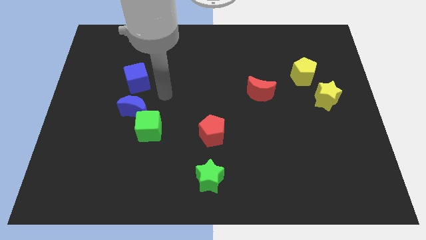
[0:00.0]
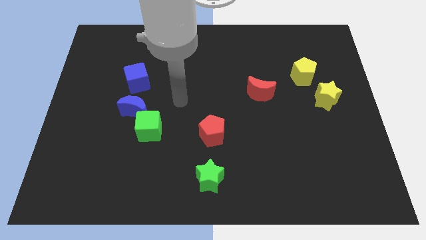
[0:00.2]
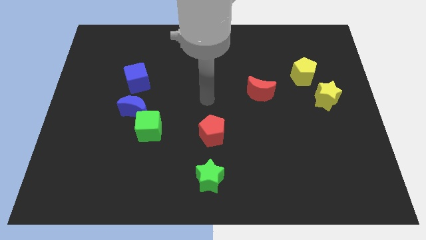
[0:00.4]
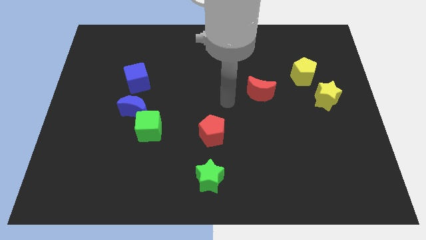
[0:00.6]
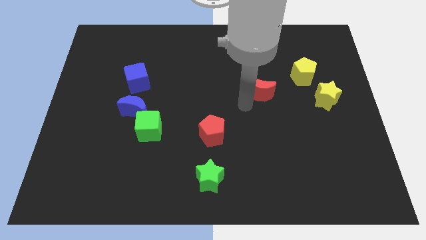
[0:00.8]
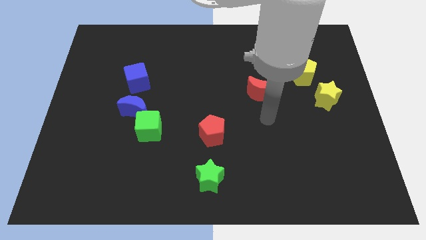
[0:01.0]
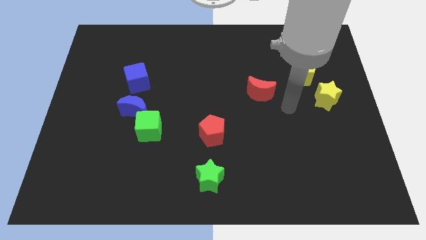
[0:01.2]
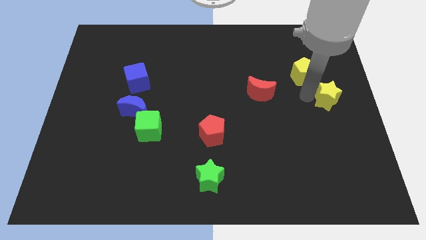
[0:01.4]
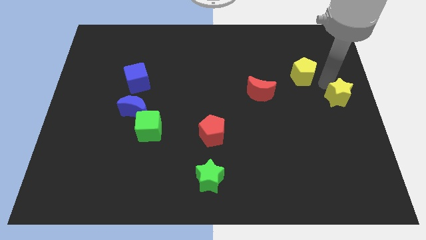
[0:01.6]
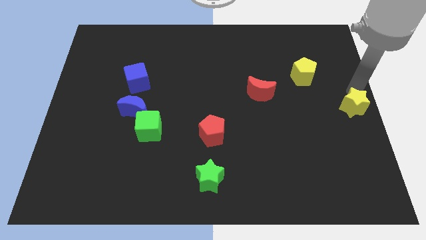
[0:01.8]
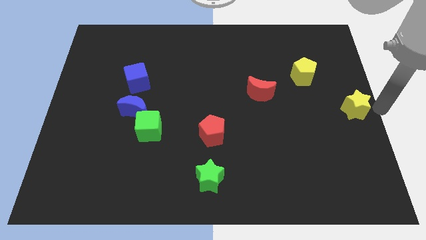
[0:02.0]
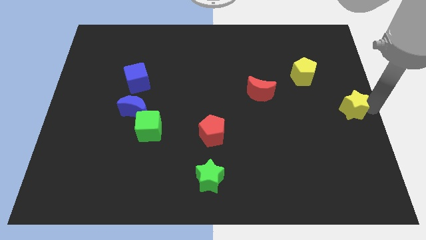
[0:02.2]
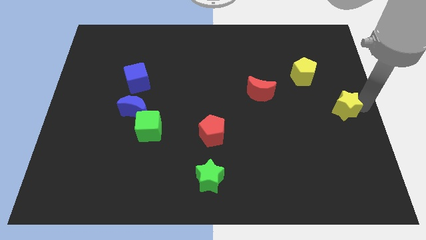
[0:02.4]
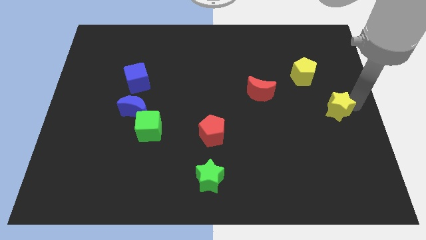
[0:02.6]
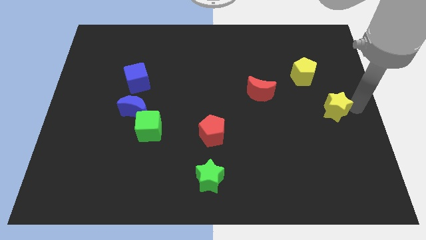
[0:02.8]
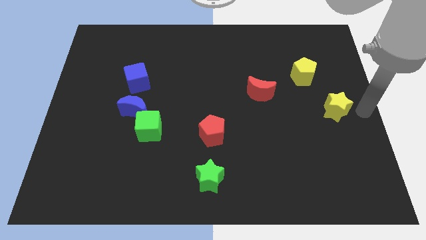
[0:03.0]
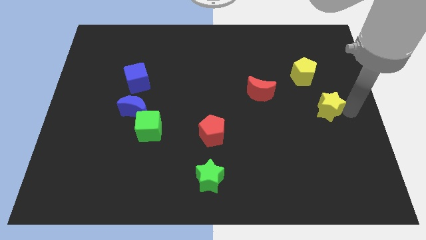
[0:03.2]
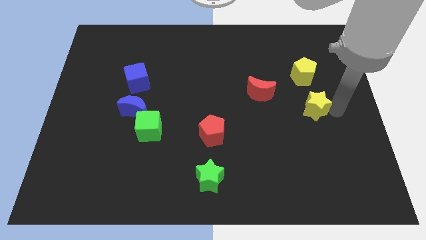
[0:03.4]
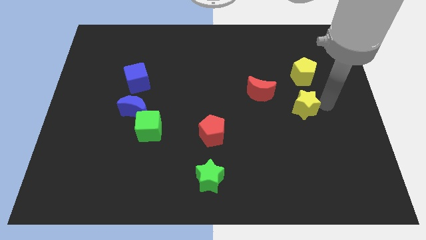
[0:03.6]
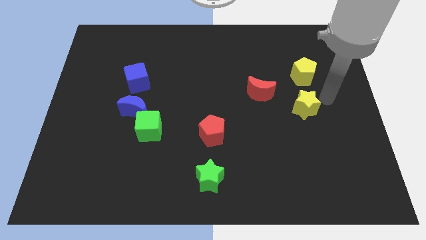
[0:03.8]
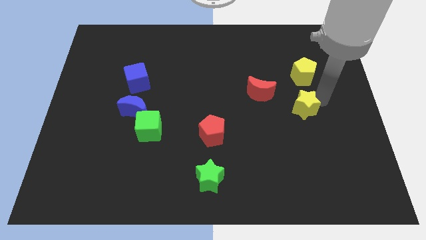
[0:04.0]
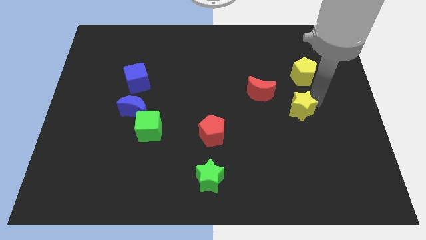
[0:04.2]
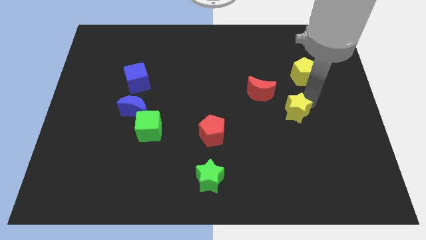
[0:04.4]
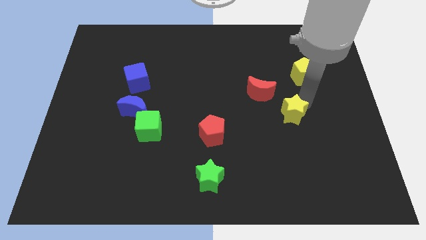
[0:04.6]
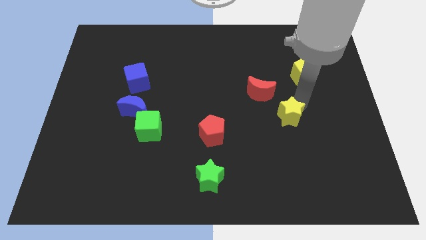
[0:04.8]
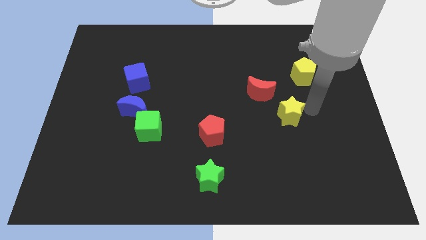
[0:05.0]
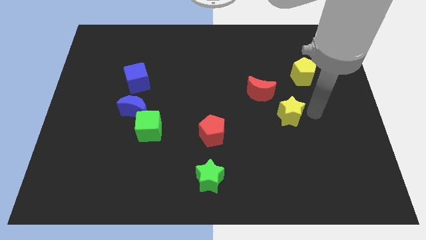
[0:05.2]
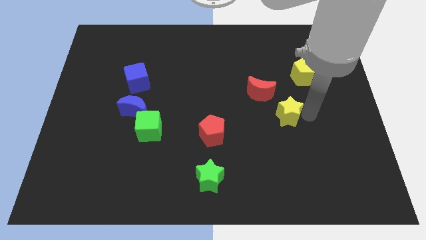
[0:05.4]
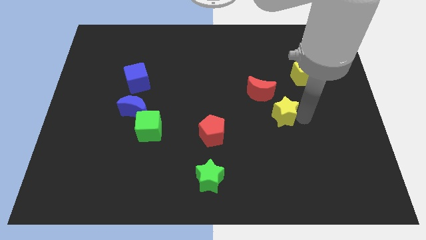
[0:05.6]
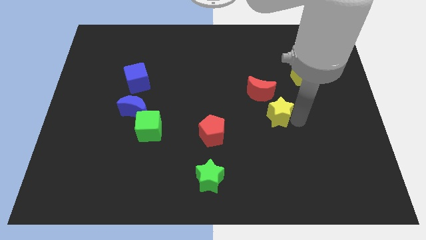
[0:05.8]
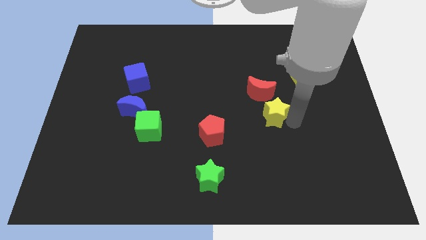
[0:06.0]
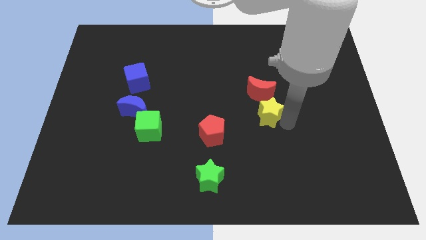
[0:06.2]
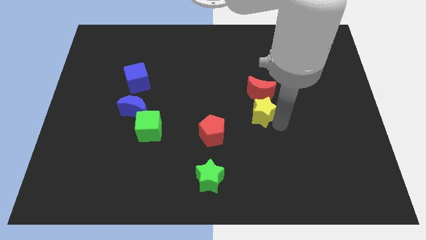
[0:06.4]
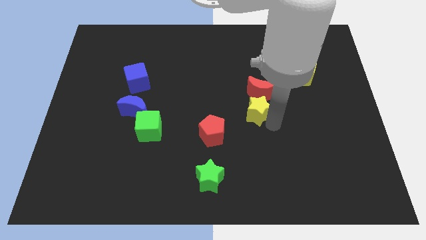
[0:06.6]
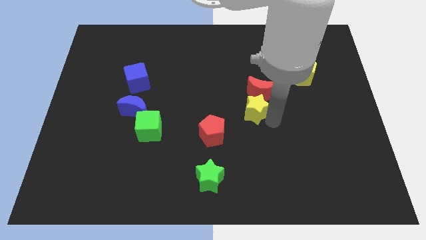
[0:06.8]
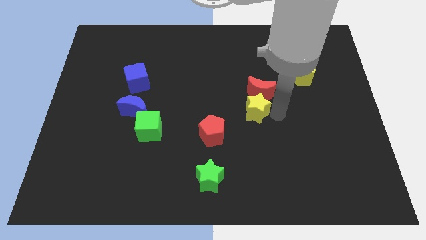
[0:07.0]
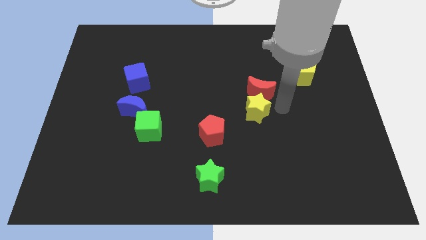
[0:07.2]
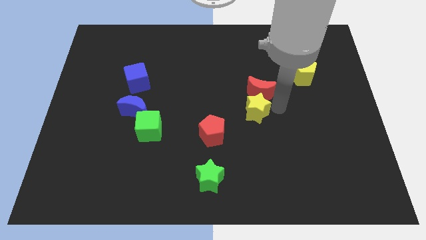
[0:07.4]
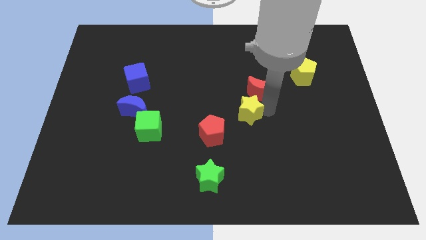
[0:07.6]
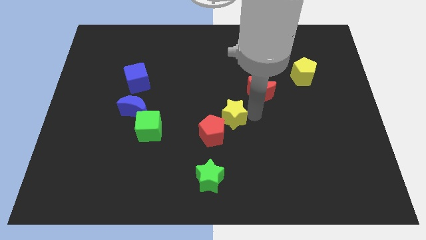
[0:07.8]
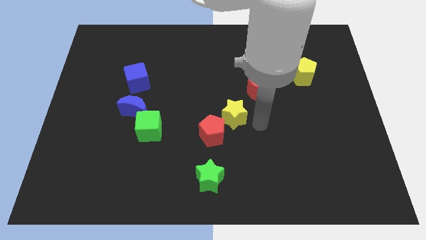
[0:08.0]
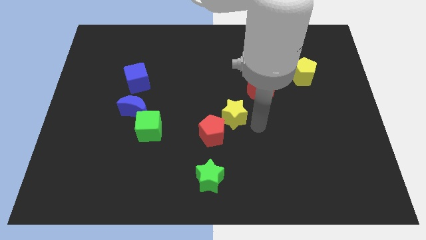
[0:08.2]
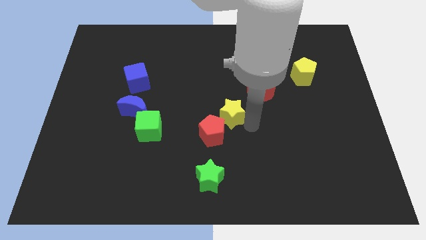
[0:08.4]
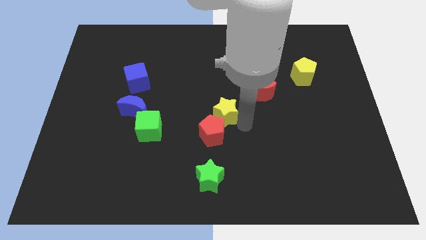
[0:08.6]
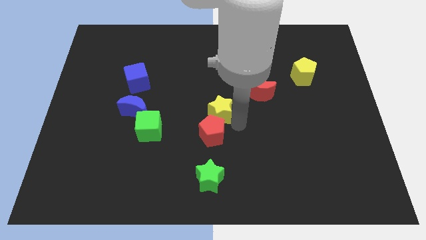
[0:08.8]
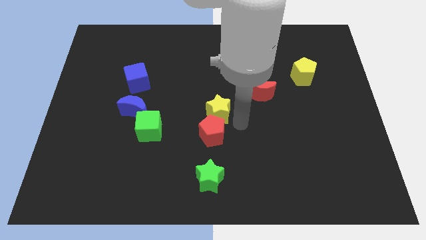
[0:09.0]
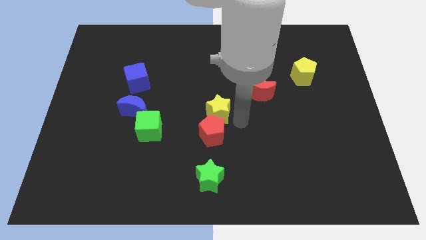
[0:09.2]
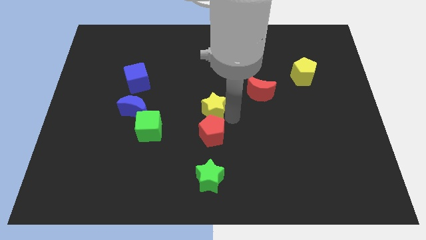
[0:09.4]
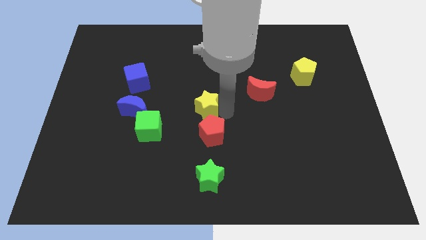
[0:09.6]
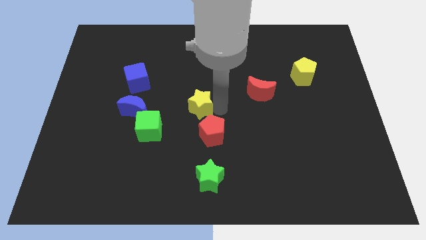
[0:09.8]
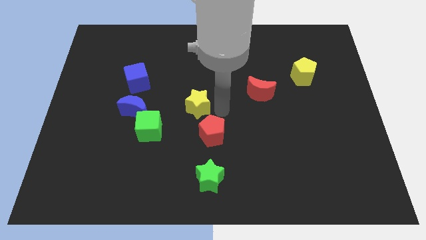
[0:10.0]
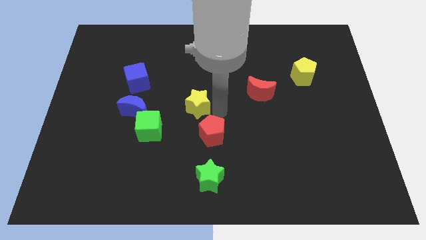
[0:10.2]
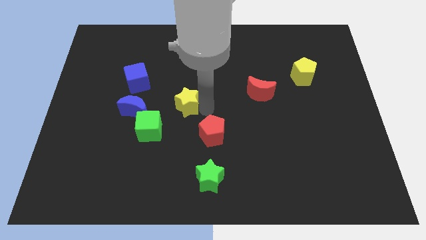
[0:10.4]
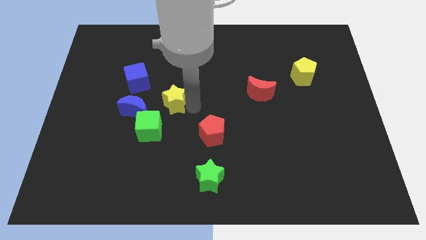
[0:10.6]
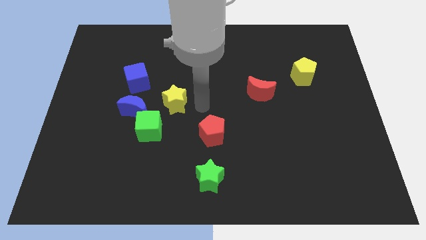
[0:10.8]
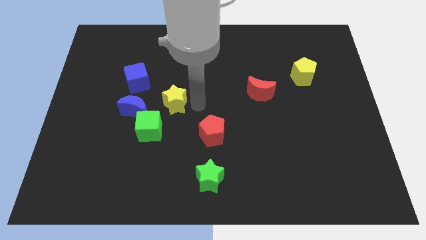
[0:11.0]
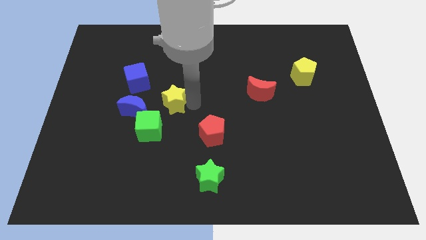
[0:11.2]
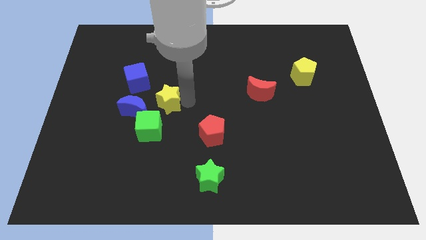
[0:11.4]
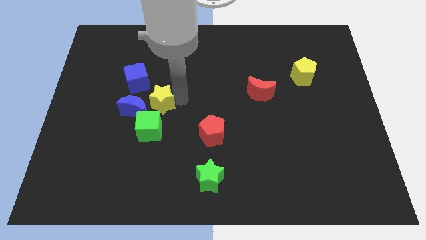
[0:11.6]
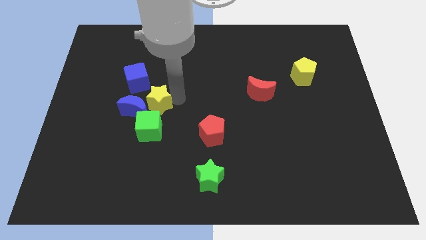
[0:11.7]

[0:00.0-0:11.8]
move the yellow star close to the blue moon

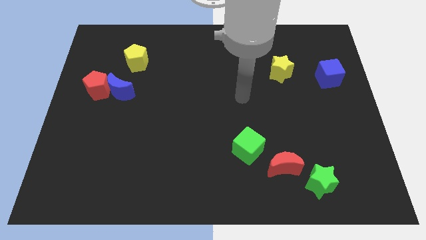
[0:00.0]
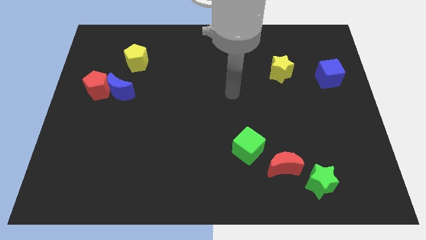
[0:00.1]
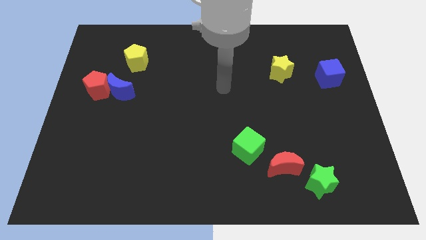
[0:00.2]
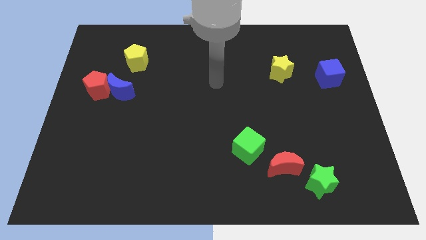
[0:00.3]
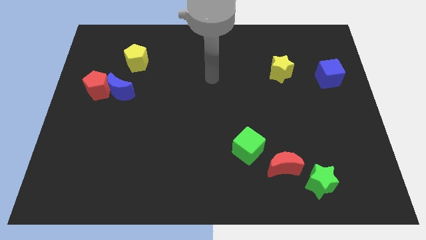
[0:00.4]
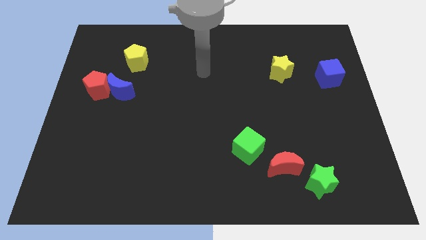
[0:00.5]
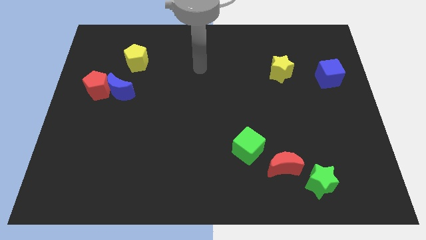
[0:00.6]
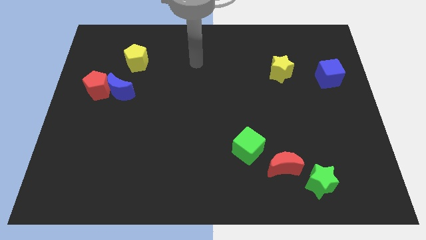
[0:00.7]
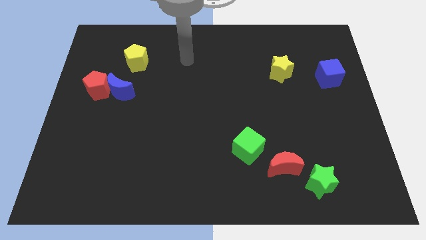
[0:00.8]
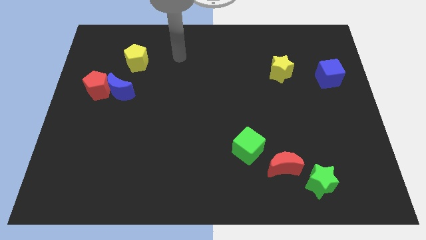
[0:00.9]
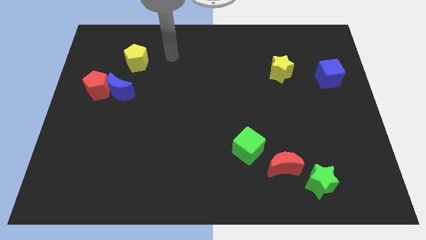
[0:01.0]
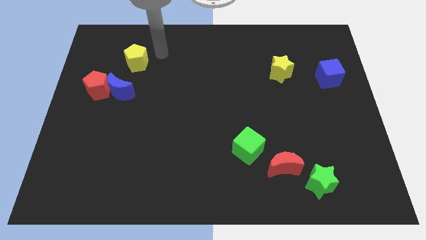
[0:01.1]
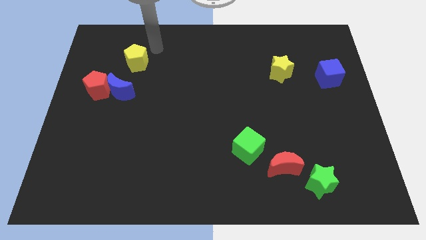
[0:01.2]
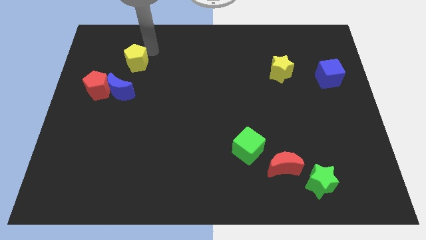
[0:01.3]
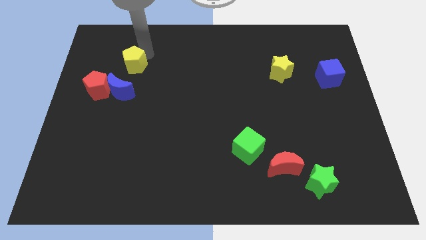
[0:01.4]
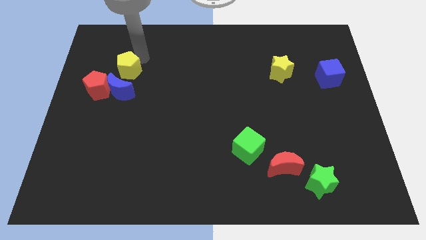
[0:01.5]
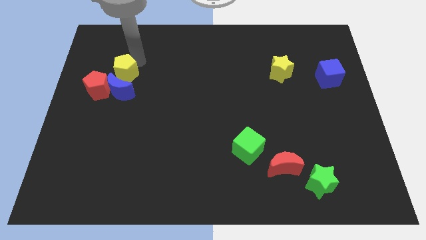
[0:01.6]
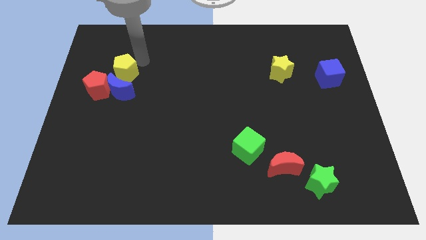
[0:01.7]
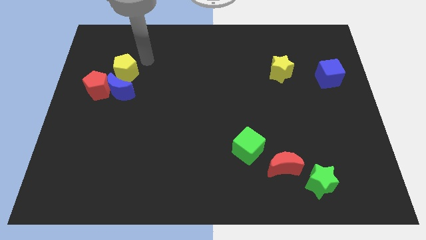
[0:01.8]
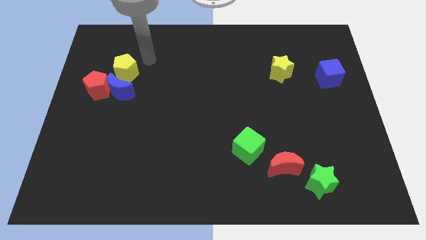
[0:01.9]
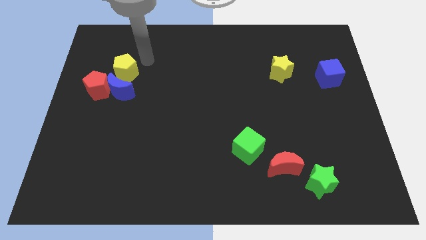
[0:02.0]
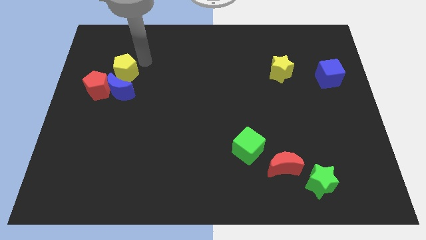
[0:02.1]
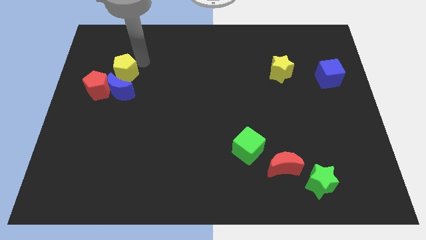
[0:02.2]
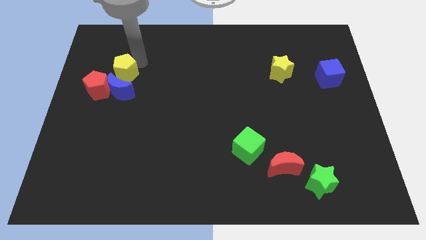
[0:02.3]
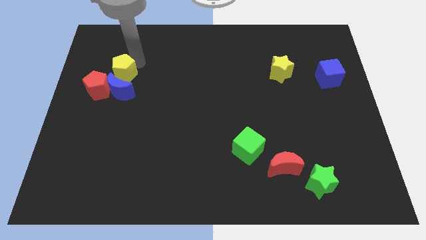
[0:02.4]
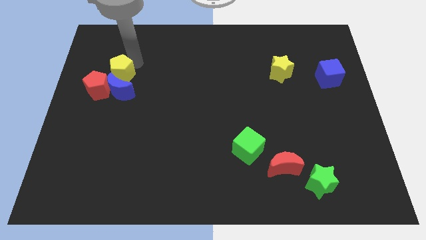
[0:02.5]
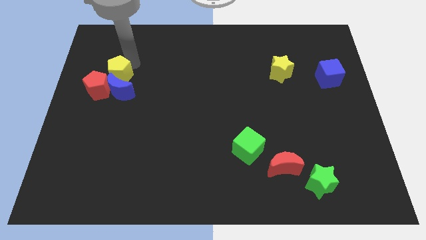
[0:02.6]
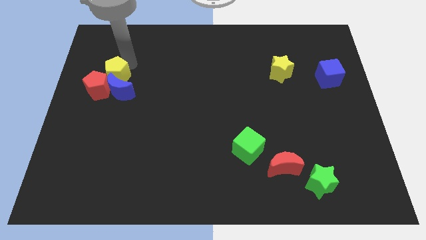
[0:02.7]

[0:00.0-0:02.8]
slide the yellow pentagon next to the red pentagon
